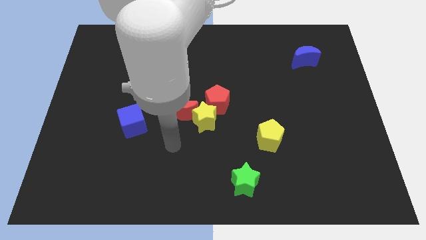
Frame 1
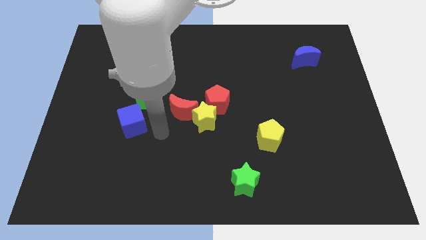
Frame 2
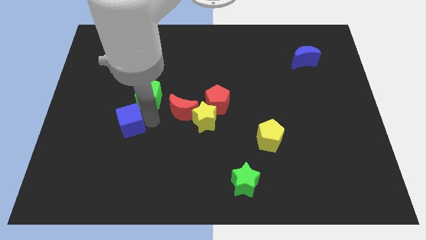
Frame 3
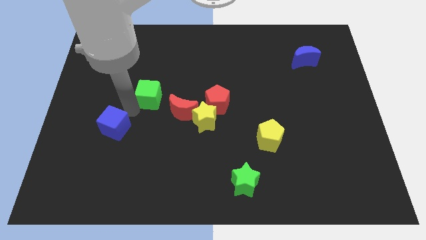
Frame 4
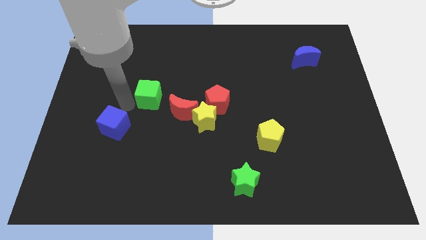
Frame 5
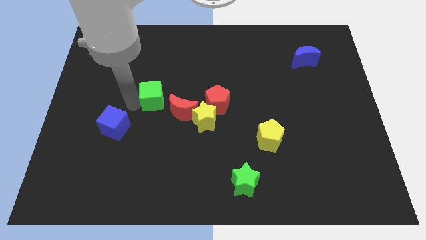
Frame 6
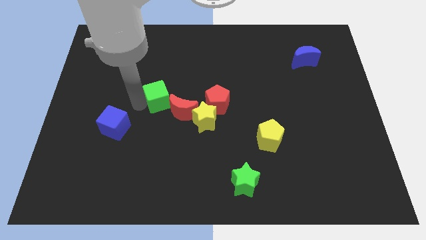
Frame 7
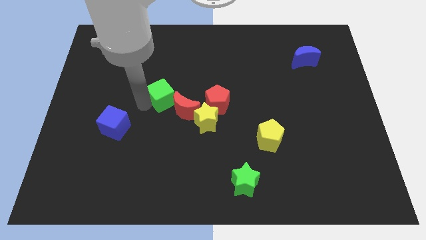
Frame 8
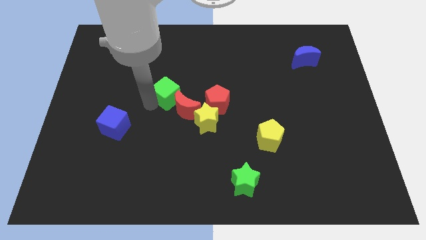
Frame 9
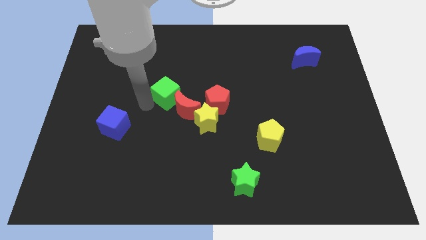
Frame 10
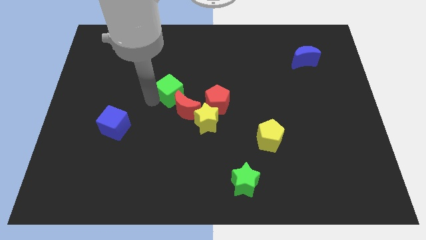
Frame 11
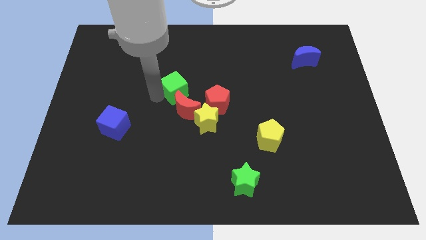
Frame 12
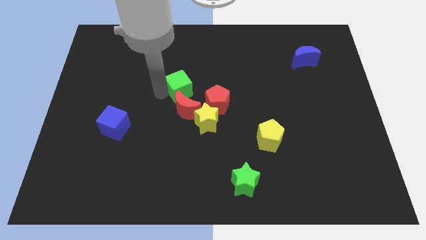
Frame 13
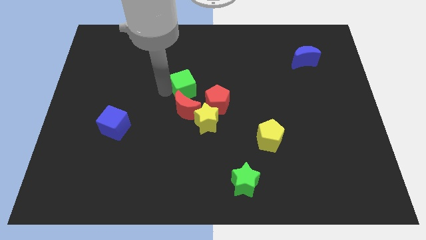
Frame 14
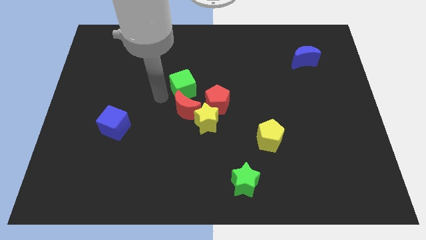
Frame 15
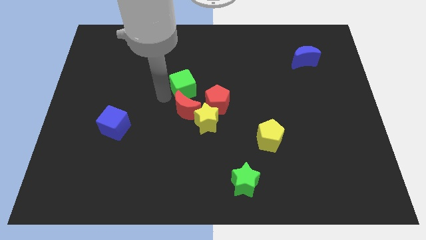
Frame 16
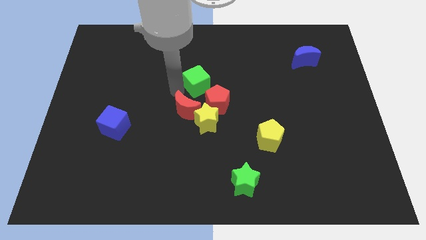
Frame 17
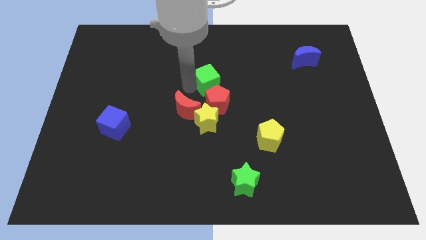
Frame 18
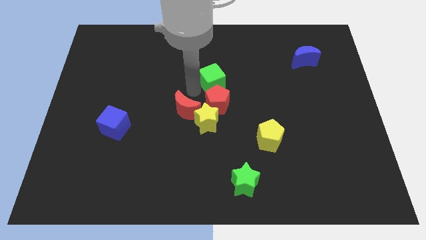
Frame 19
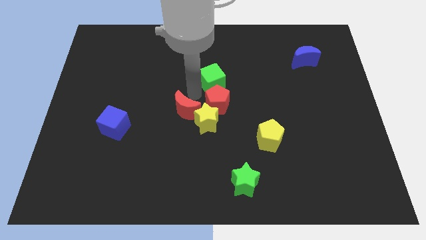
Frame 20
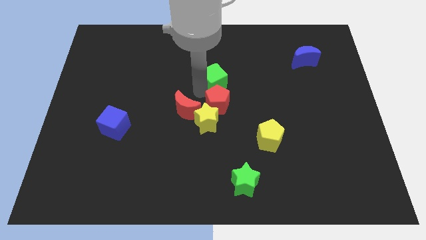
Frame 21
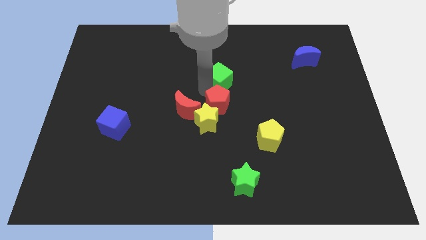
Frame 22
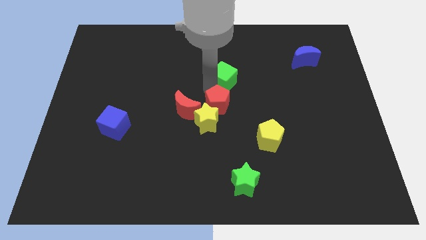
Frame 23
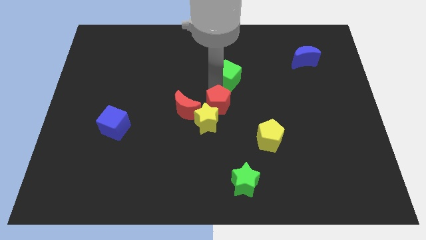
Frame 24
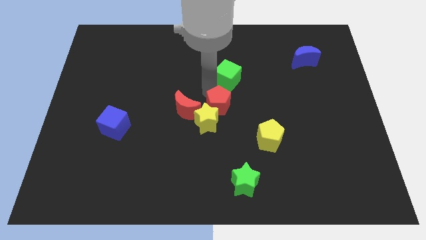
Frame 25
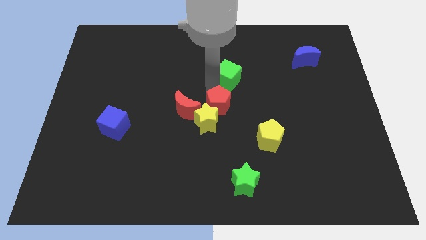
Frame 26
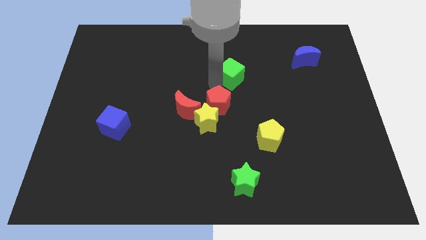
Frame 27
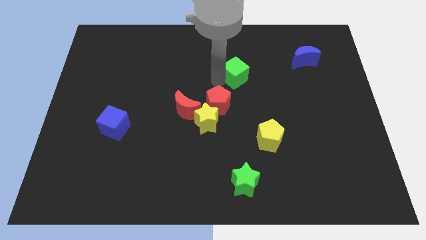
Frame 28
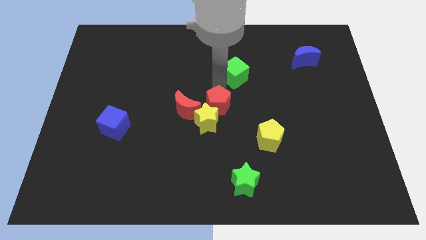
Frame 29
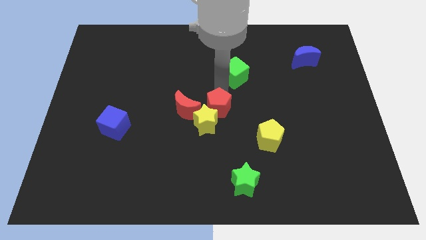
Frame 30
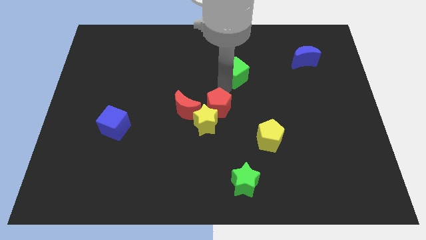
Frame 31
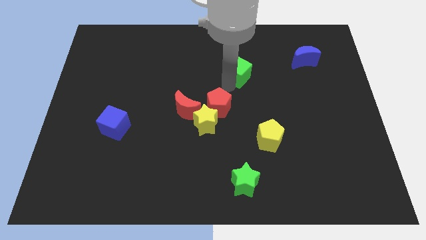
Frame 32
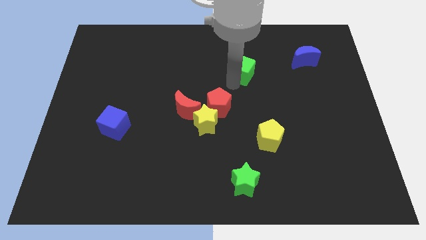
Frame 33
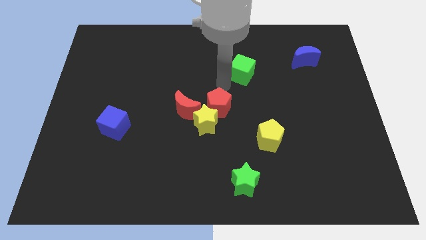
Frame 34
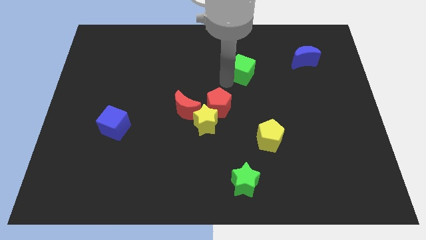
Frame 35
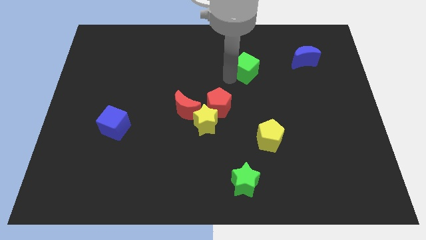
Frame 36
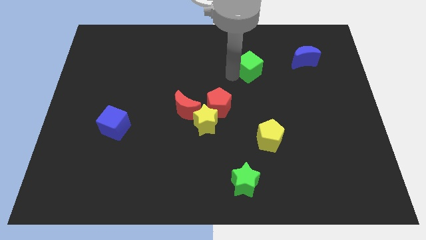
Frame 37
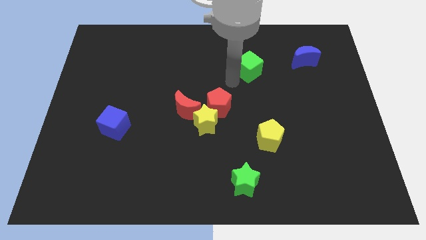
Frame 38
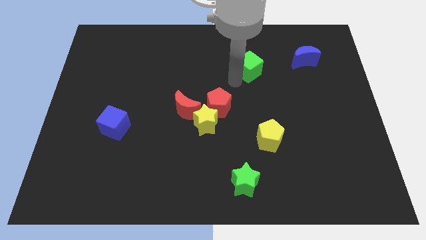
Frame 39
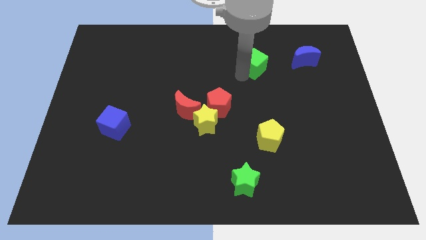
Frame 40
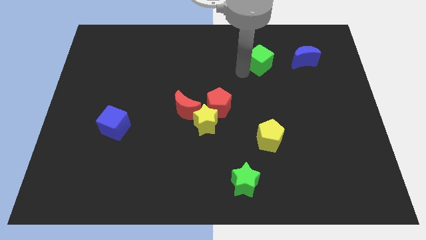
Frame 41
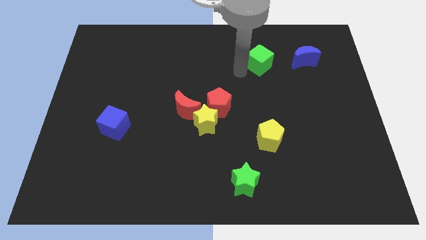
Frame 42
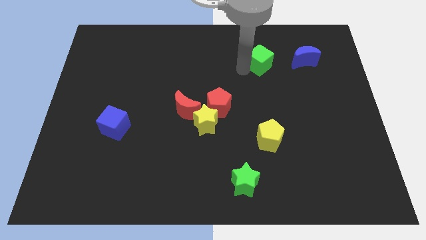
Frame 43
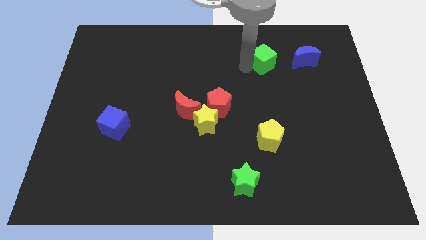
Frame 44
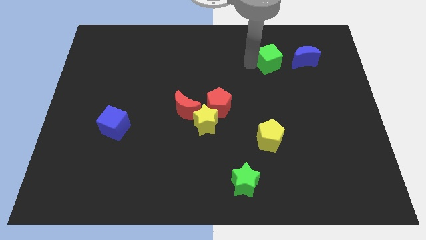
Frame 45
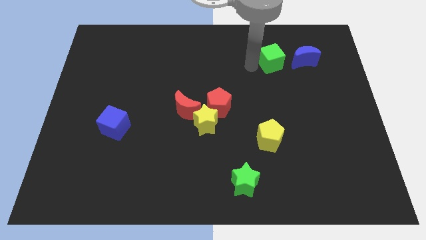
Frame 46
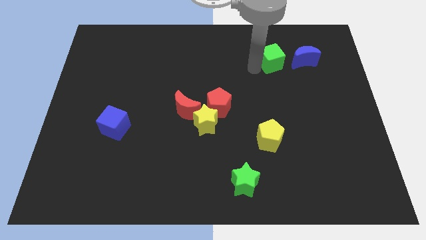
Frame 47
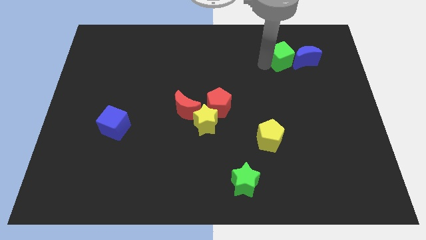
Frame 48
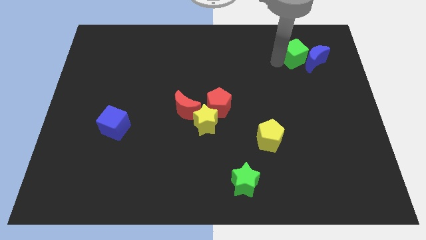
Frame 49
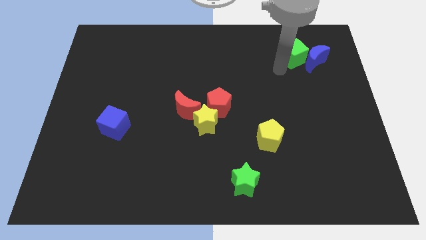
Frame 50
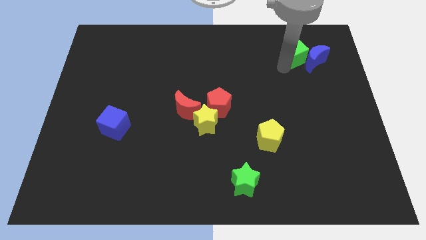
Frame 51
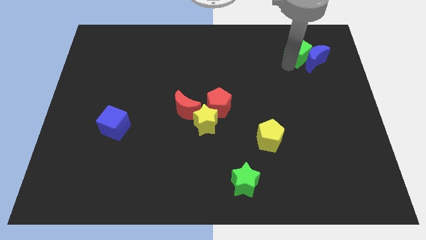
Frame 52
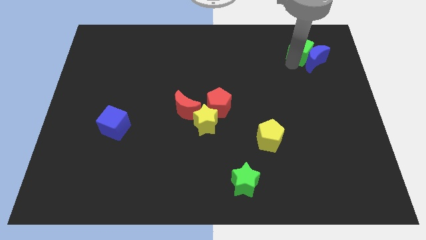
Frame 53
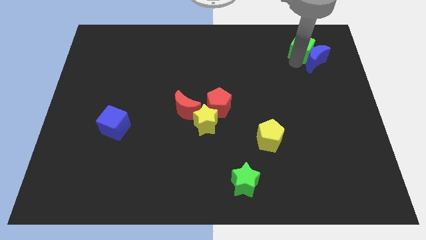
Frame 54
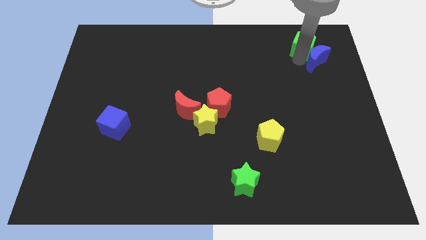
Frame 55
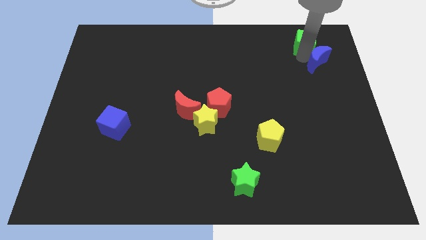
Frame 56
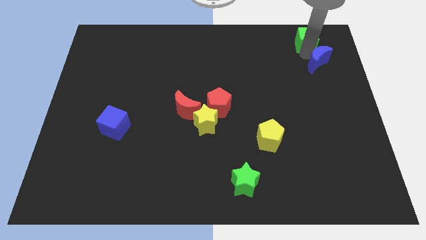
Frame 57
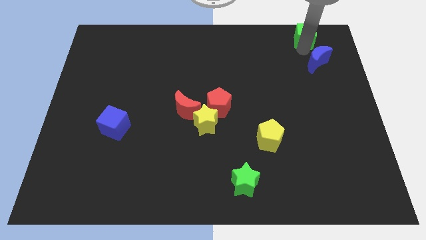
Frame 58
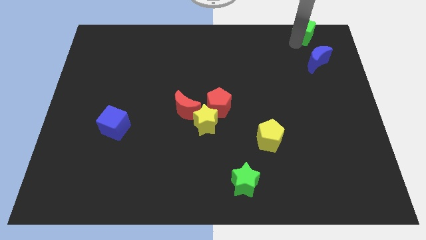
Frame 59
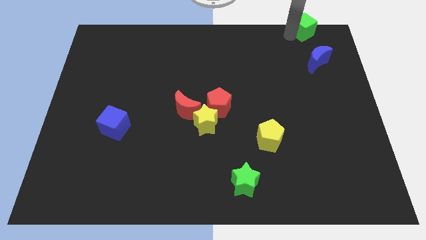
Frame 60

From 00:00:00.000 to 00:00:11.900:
put the green cube to the top right of the board

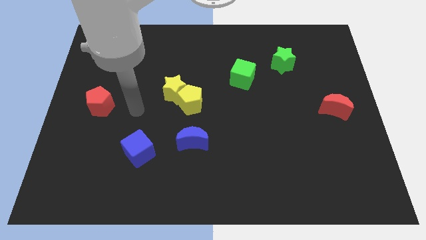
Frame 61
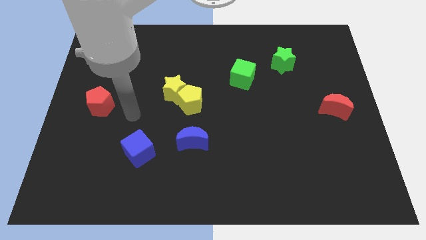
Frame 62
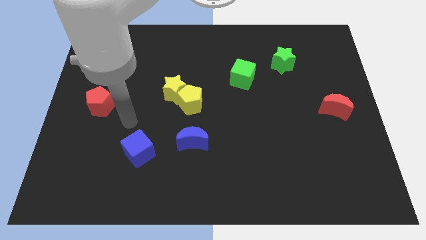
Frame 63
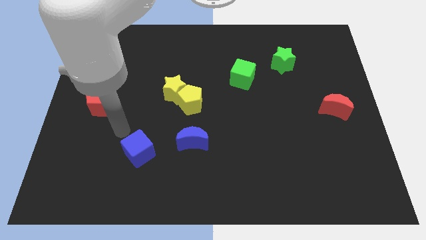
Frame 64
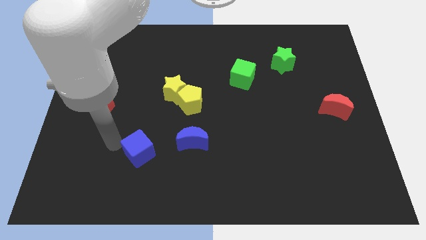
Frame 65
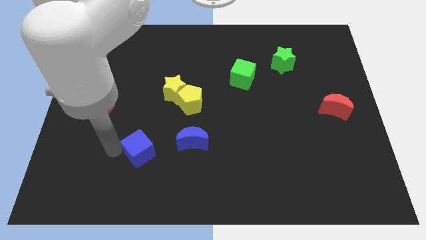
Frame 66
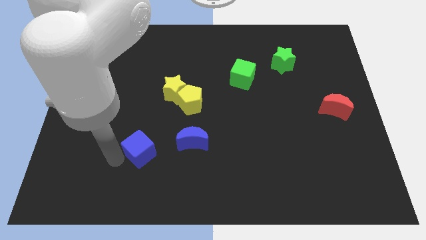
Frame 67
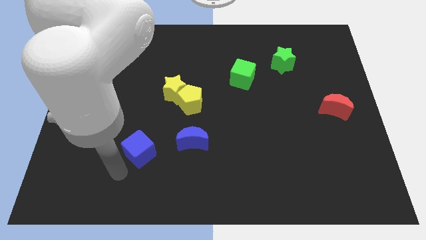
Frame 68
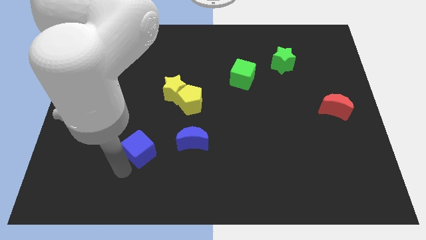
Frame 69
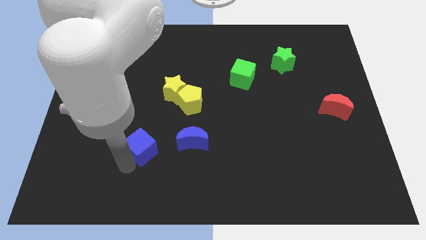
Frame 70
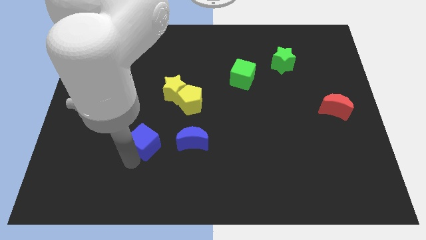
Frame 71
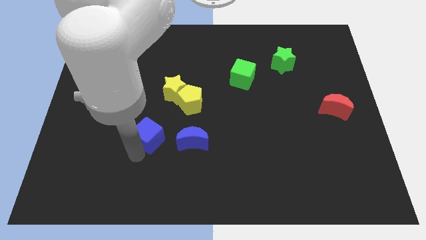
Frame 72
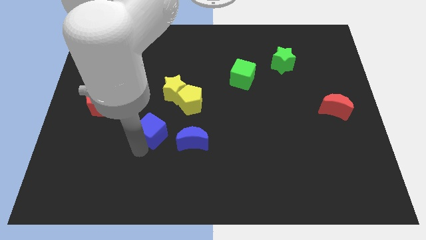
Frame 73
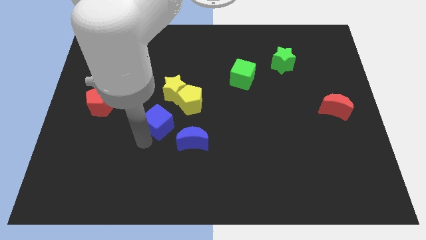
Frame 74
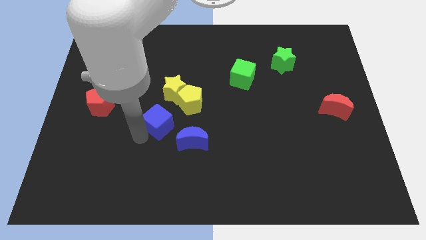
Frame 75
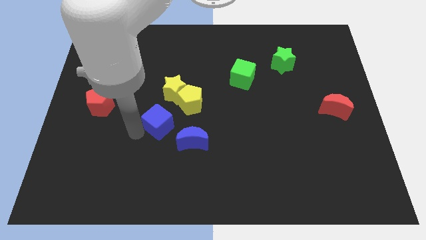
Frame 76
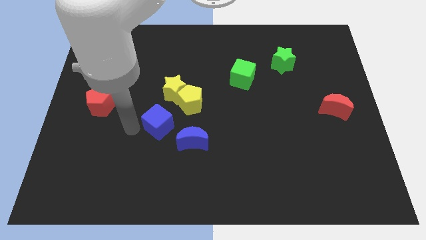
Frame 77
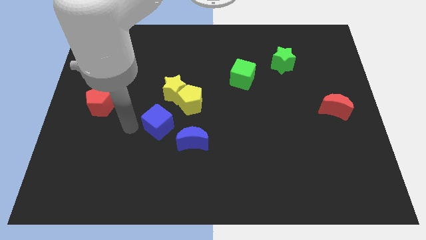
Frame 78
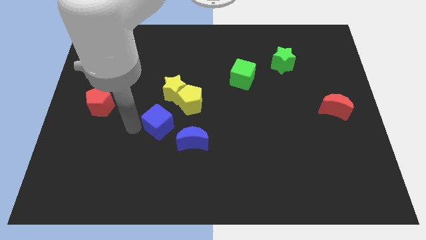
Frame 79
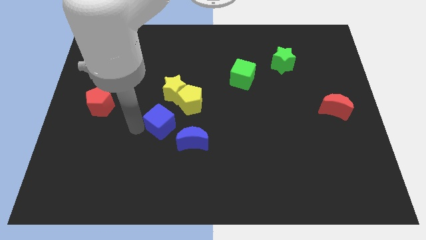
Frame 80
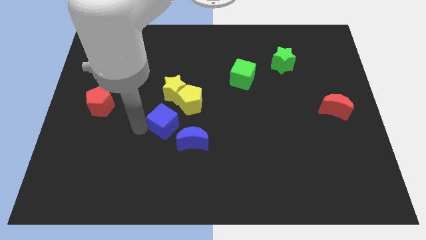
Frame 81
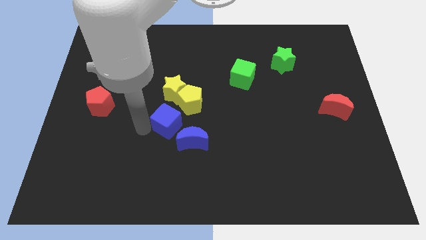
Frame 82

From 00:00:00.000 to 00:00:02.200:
push the blue cube to the middle
